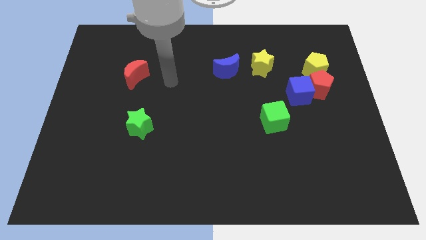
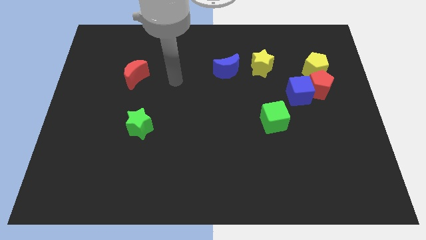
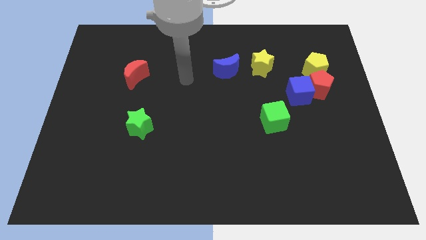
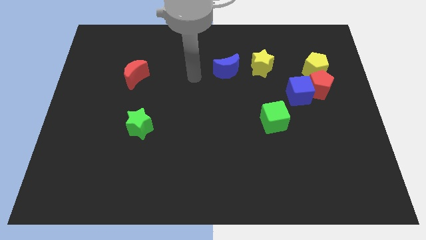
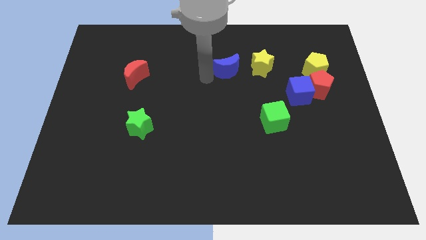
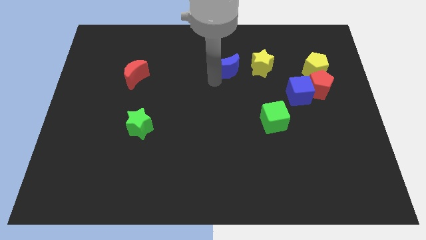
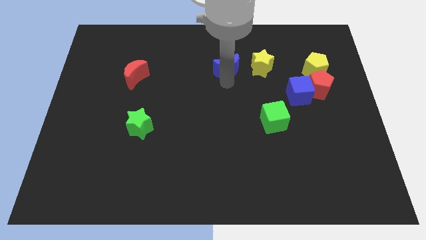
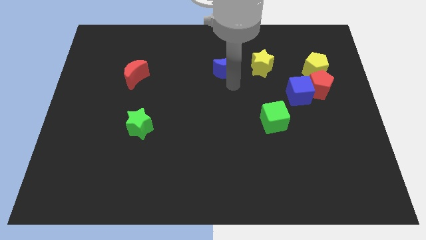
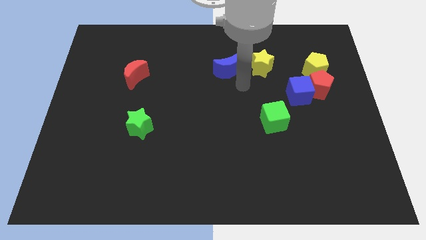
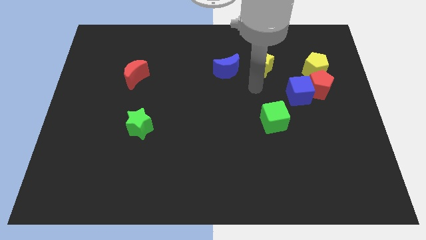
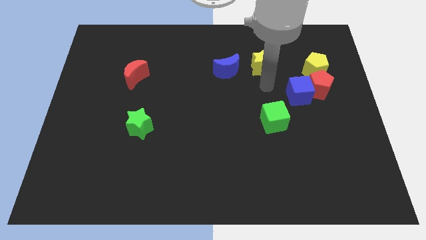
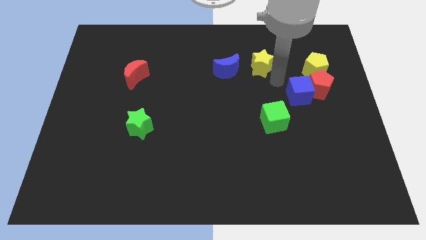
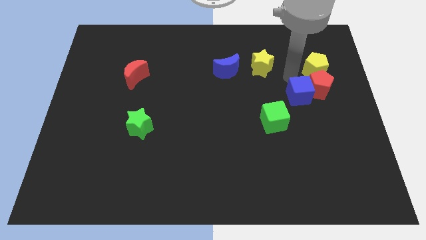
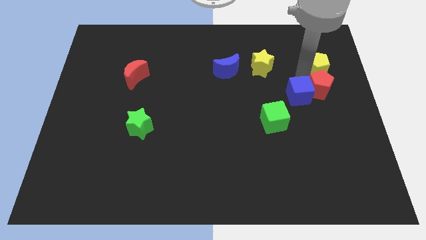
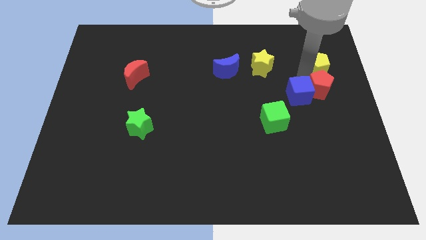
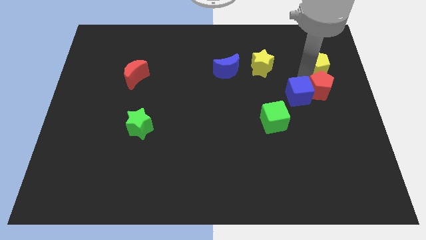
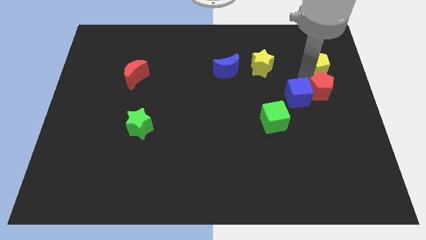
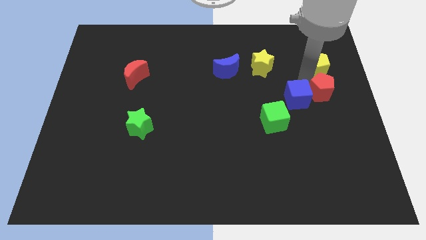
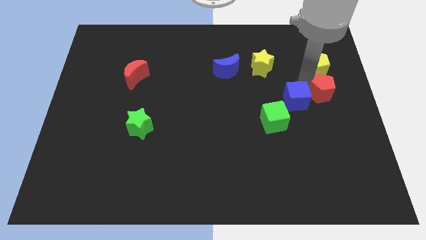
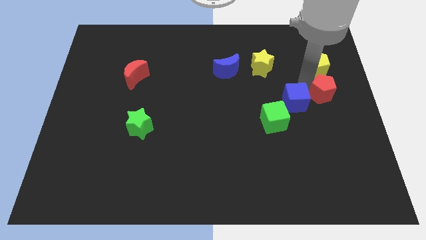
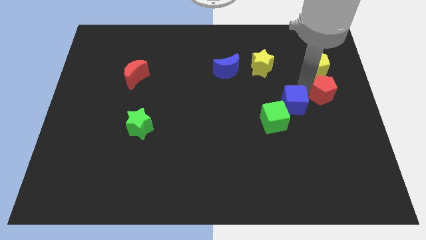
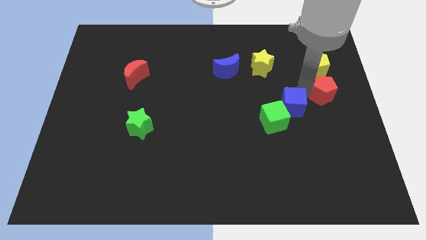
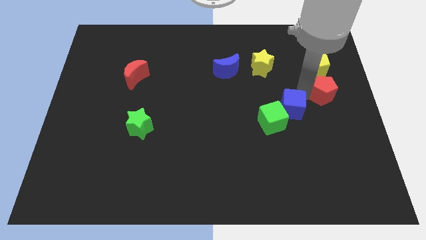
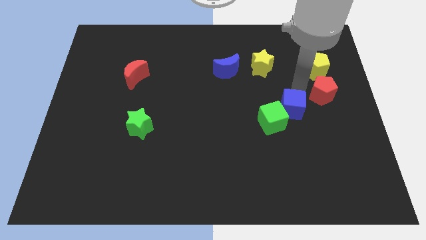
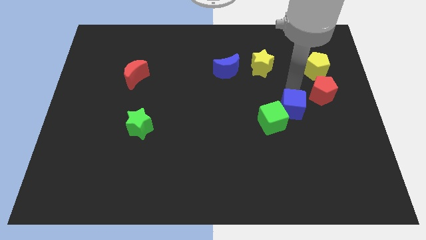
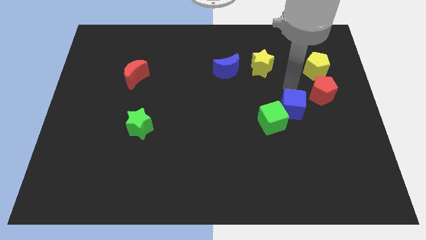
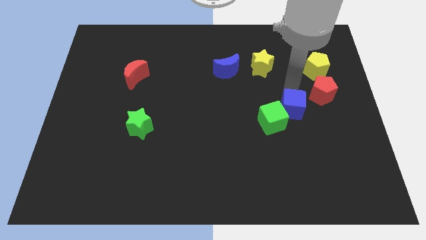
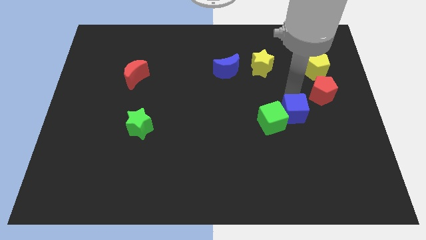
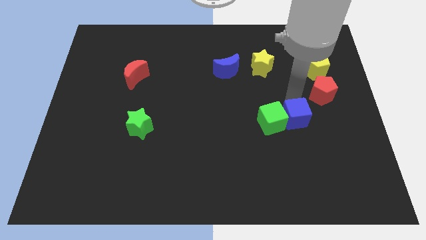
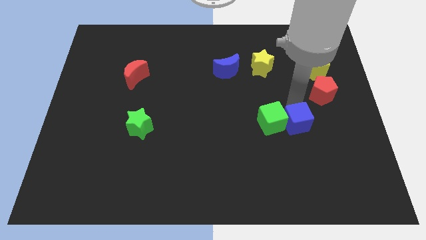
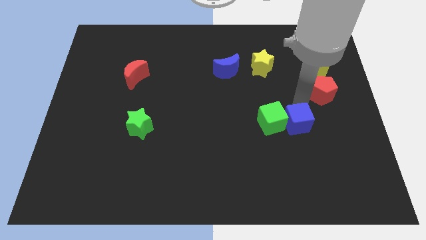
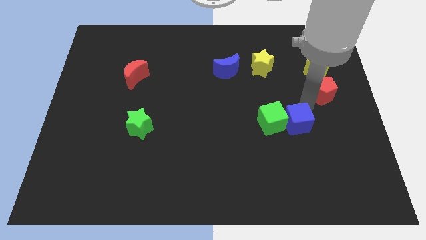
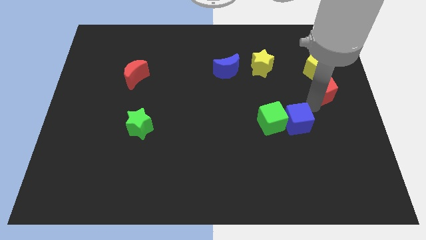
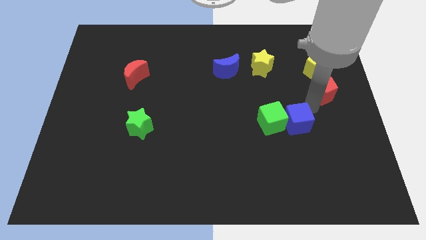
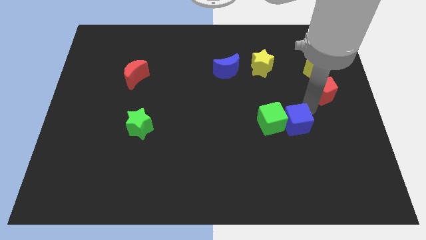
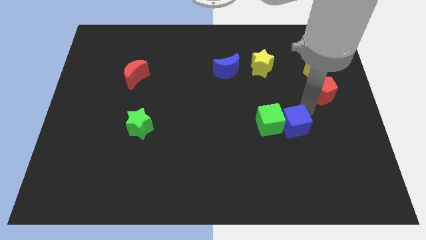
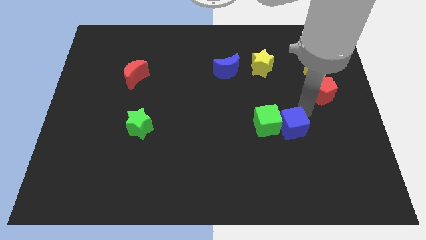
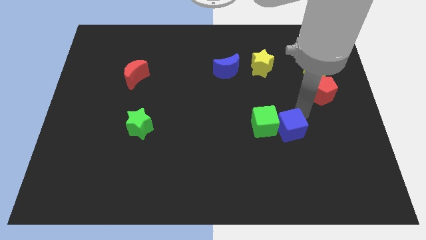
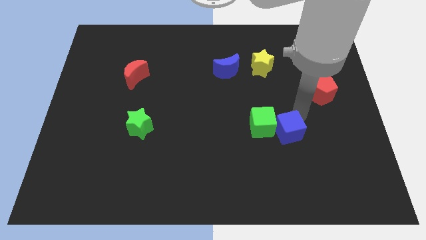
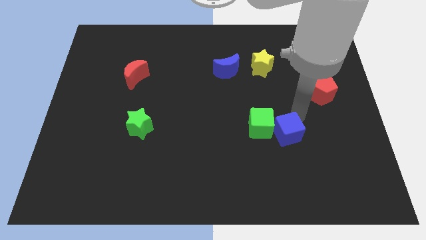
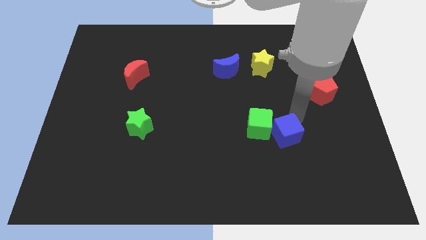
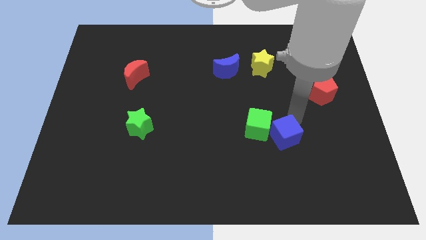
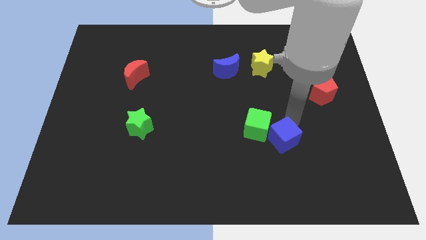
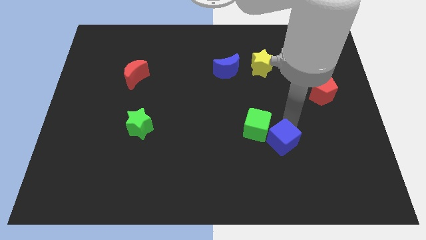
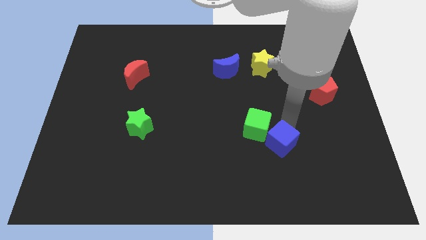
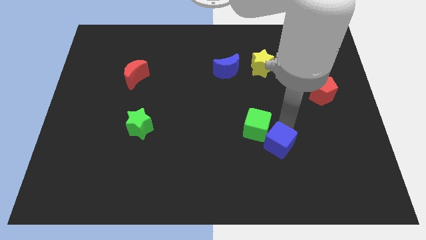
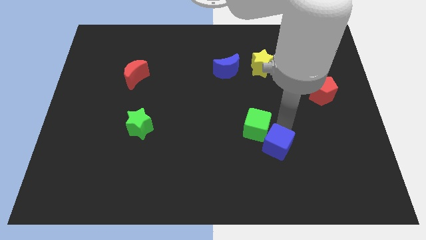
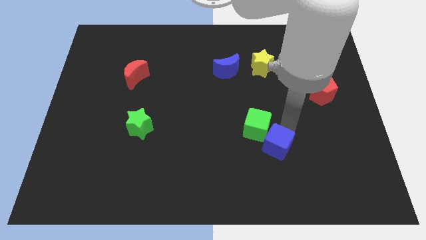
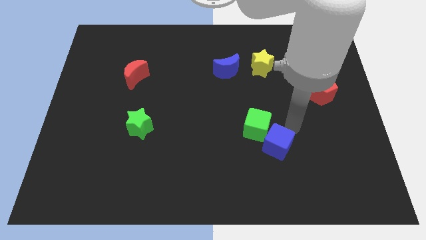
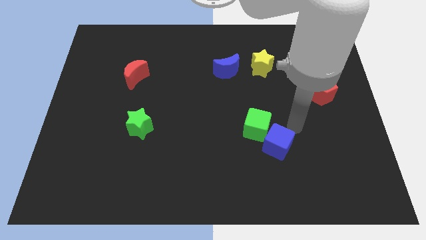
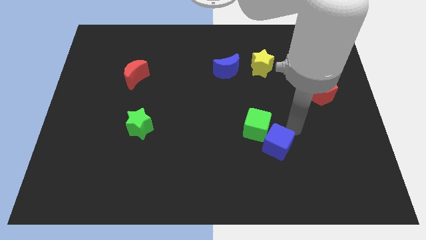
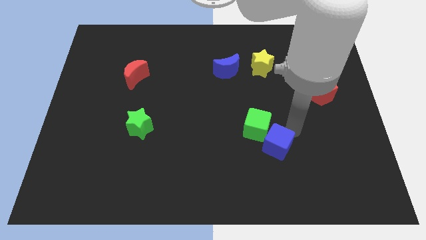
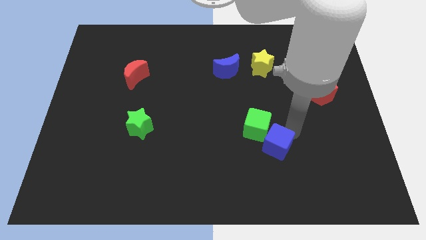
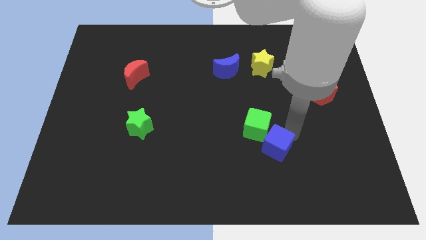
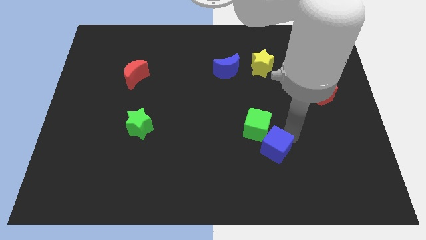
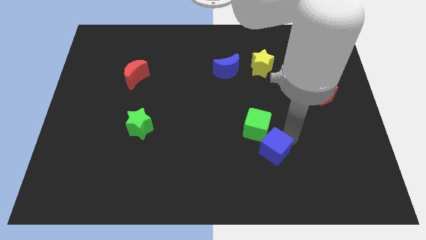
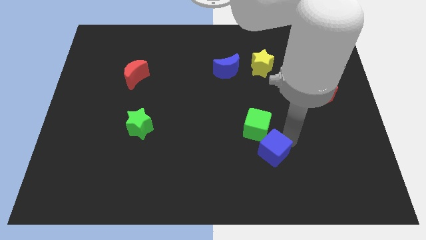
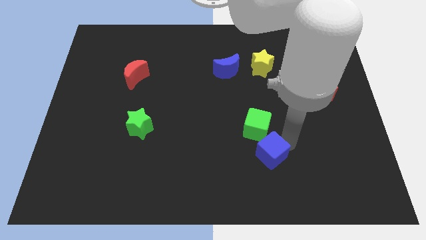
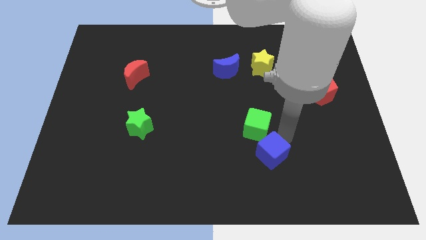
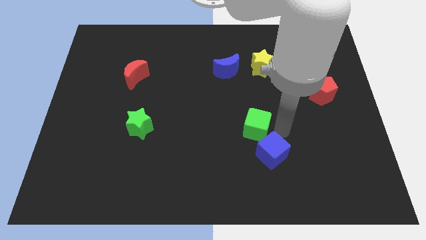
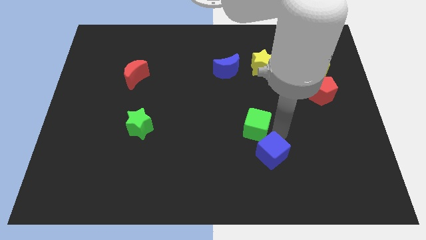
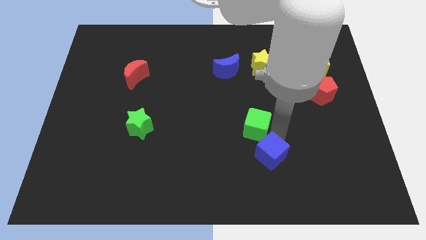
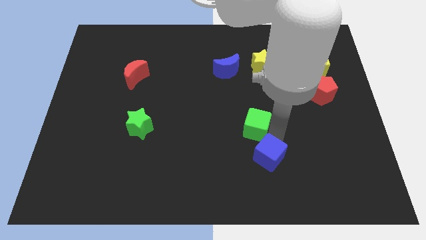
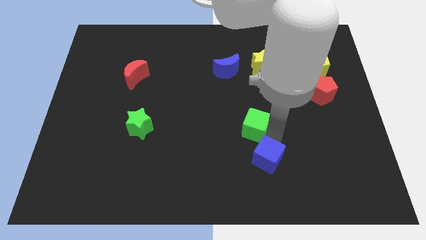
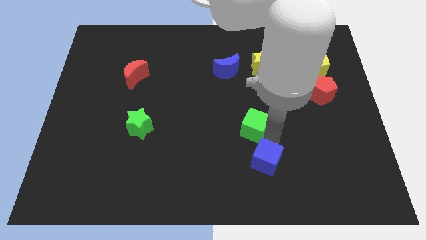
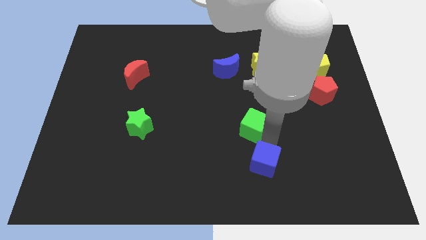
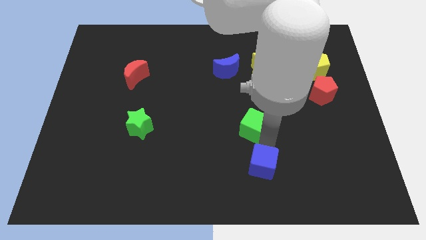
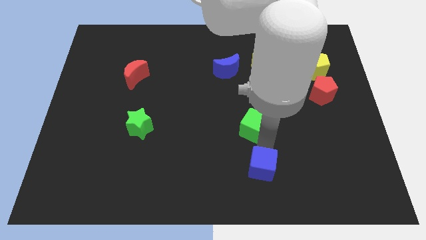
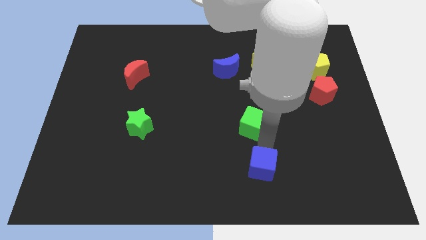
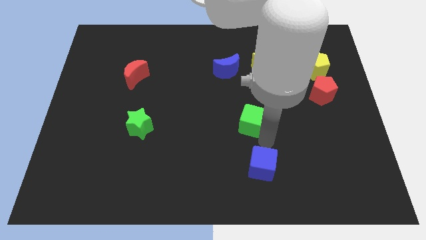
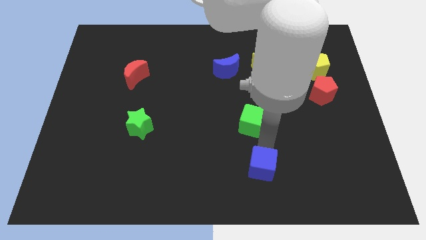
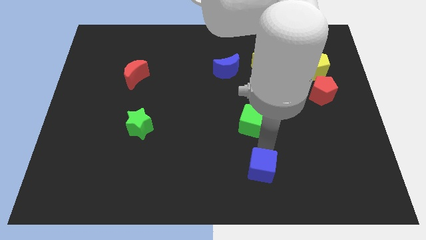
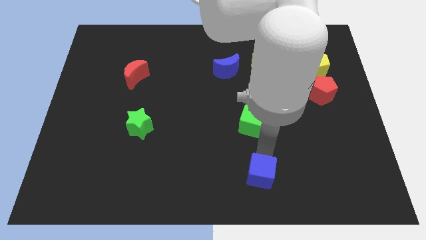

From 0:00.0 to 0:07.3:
slide the blue cube to the bottom side
